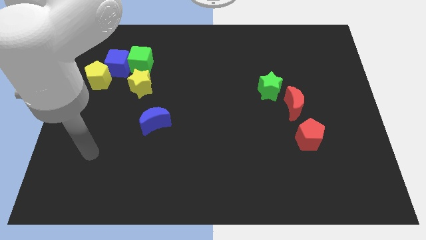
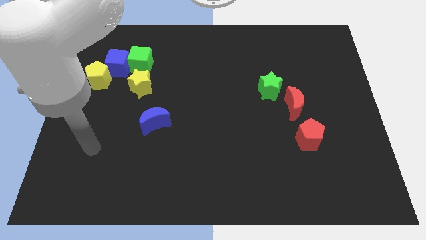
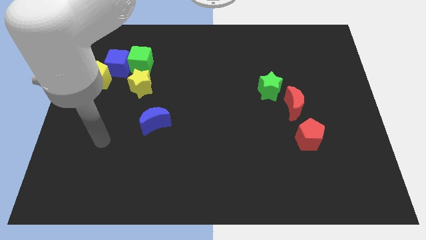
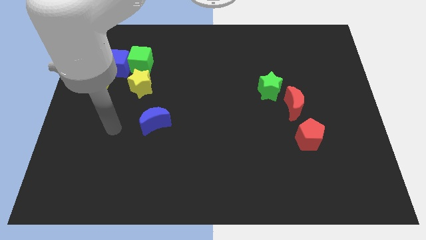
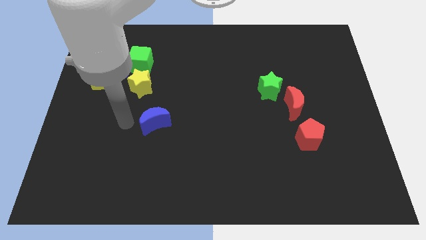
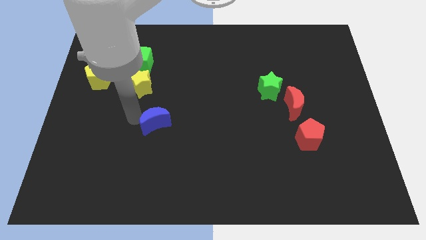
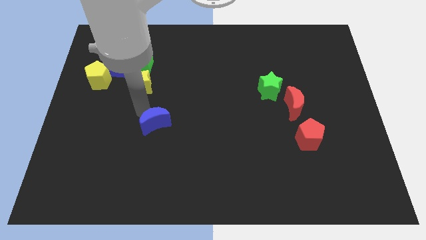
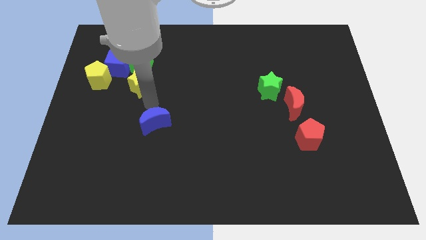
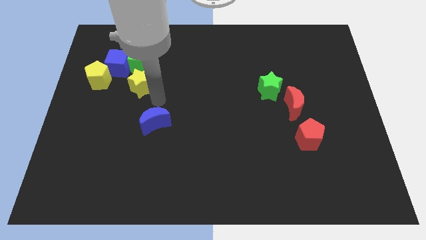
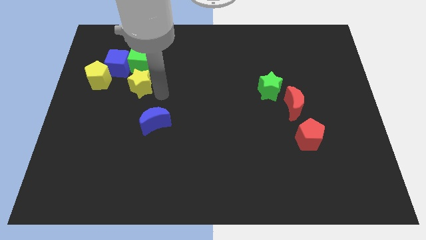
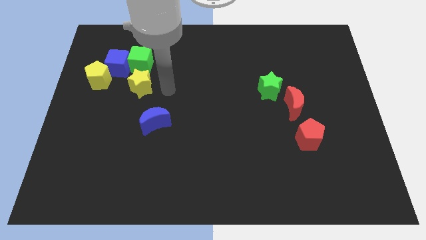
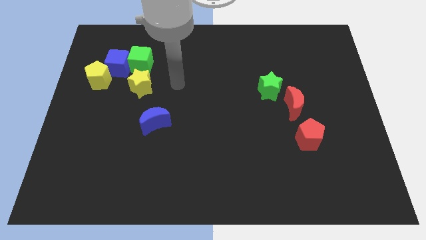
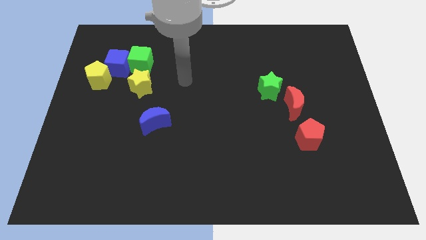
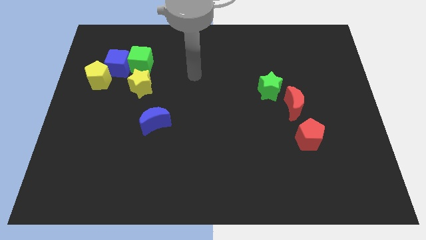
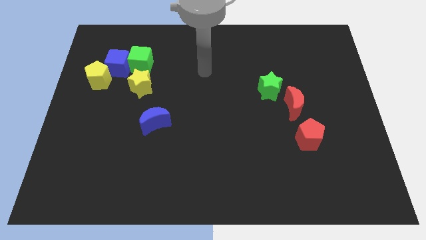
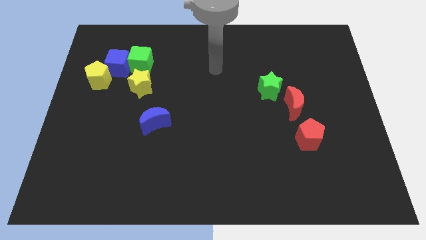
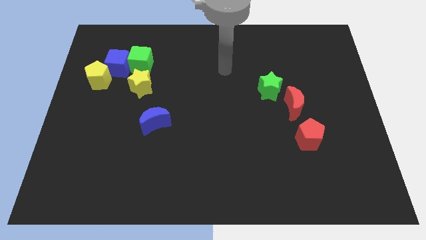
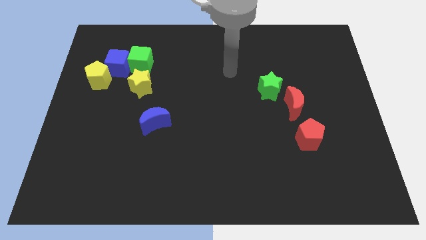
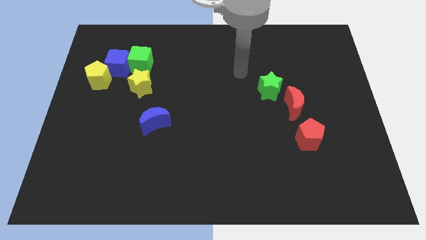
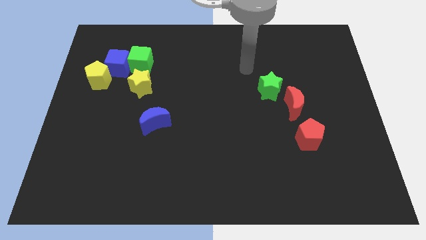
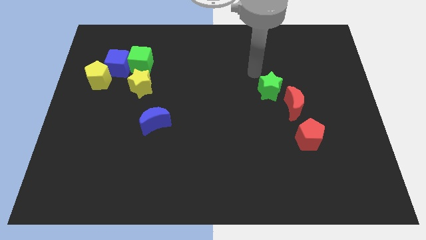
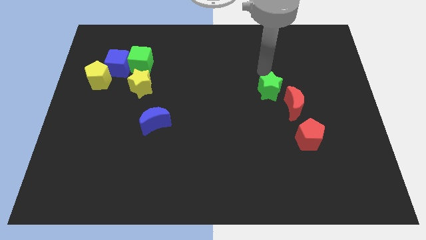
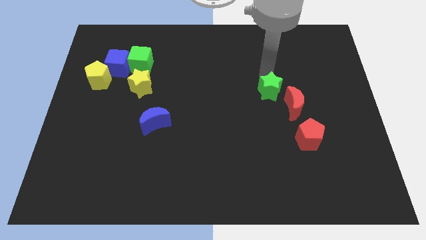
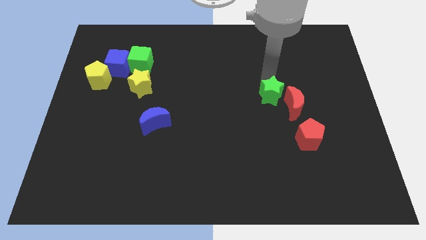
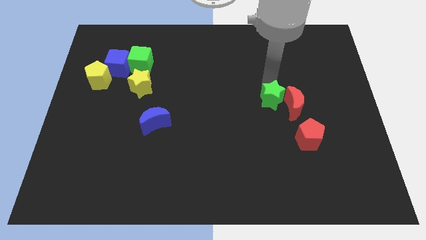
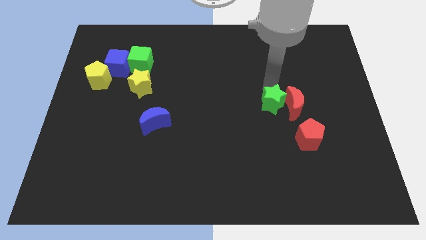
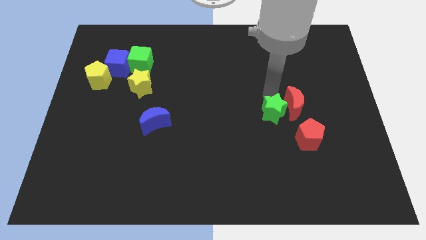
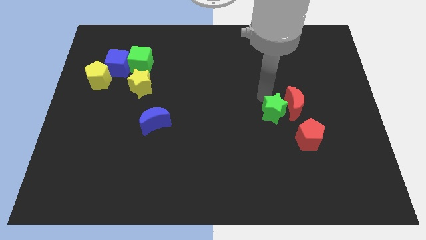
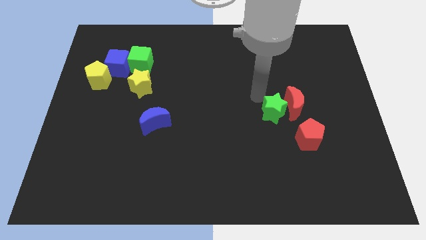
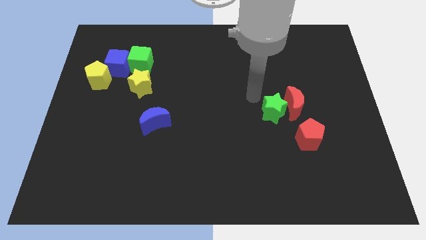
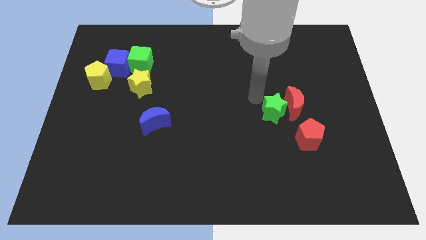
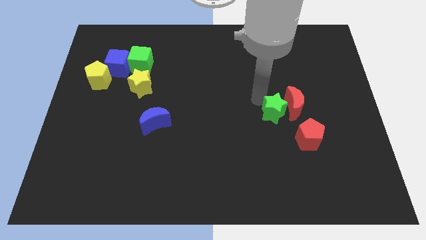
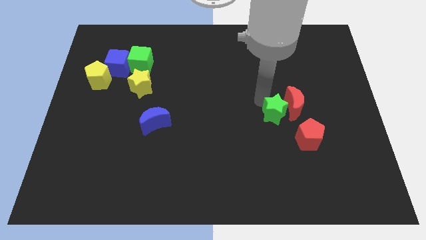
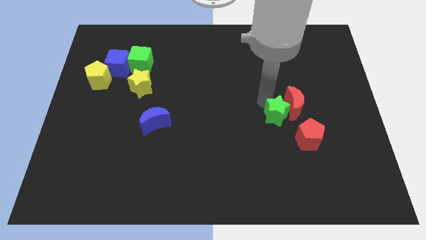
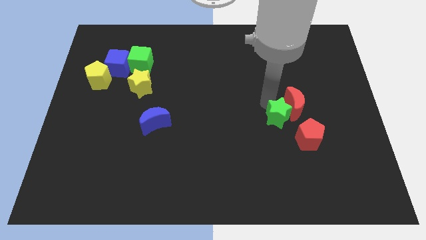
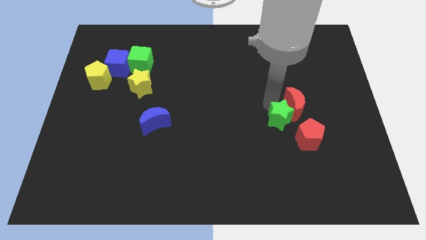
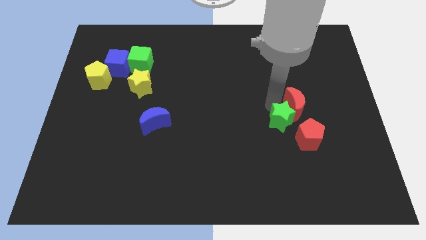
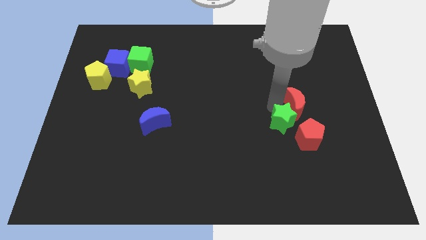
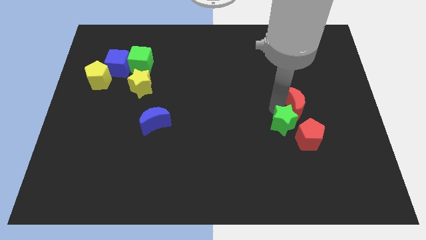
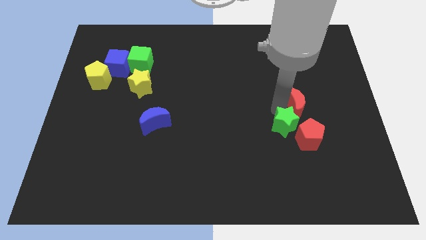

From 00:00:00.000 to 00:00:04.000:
move the green star to the red pentagon

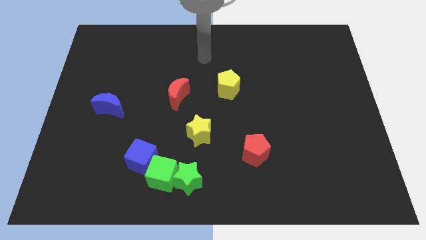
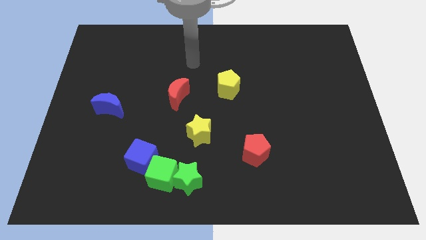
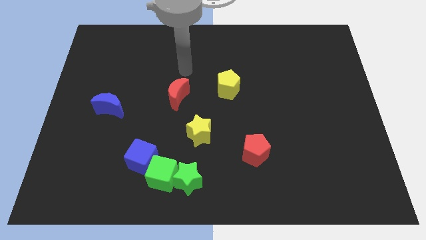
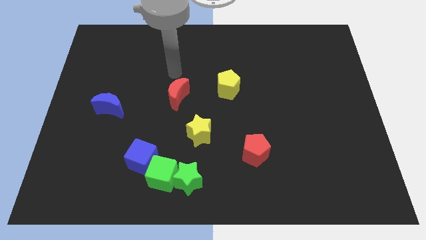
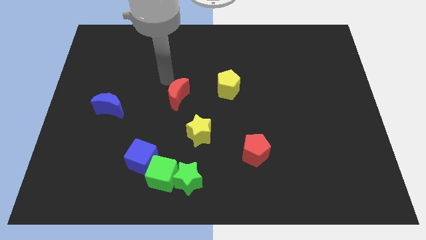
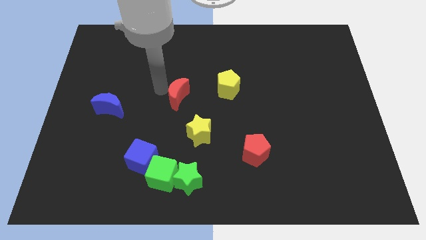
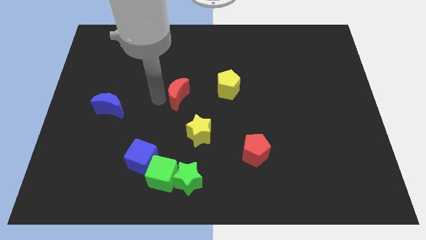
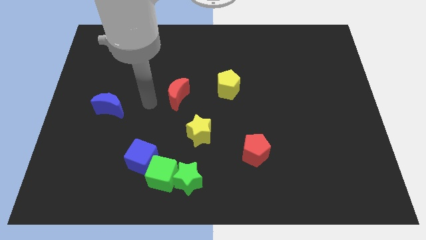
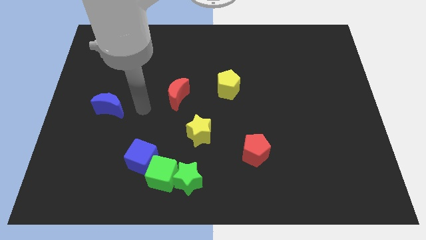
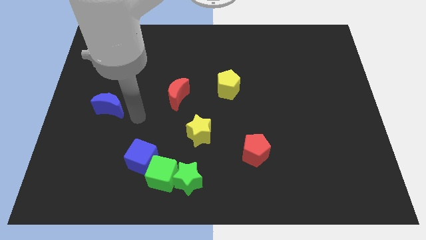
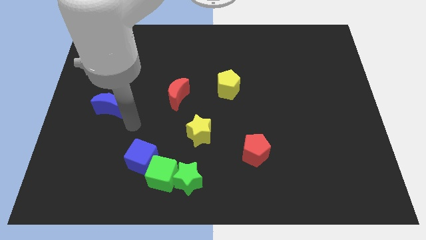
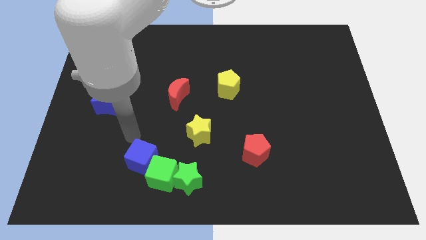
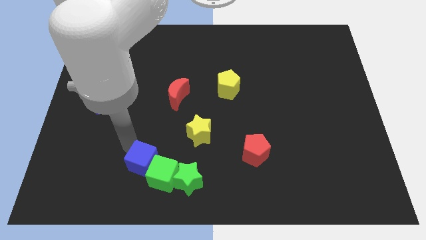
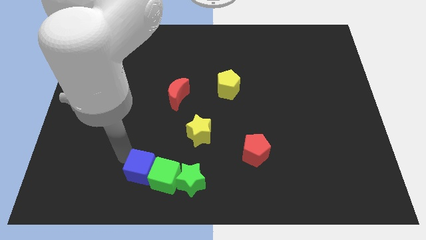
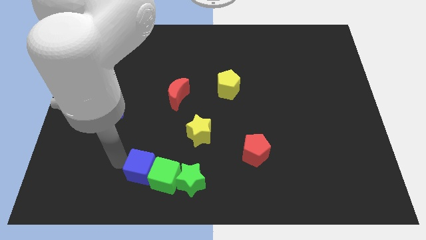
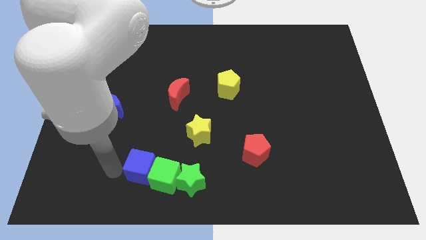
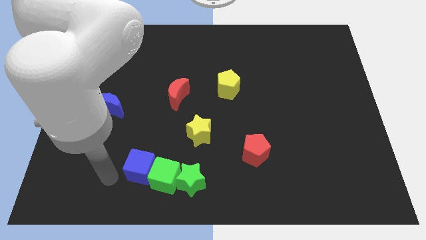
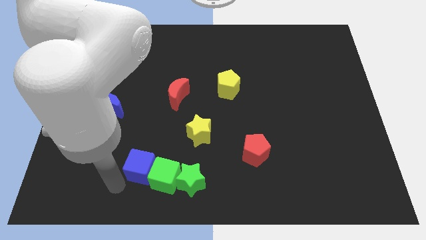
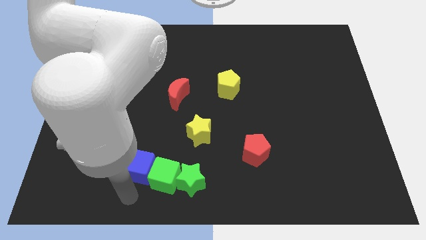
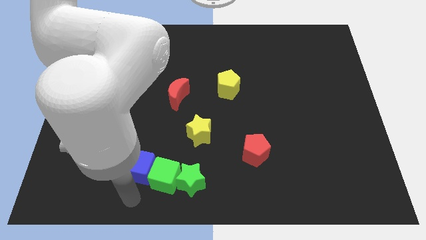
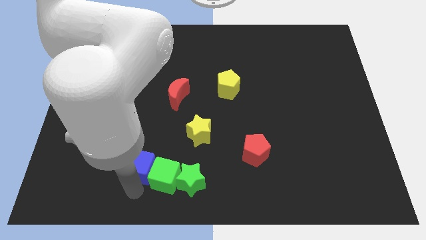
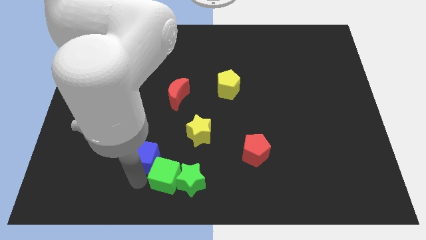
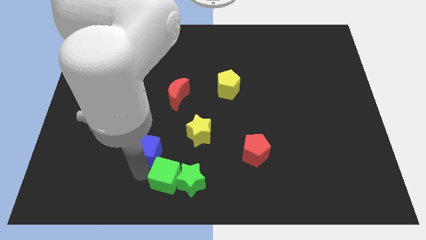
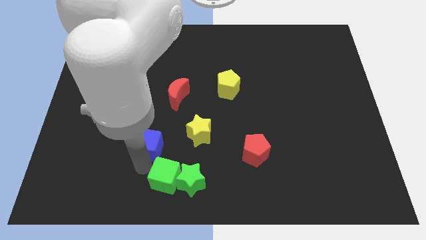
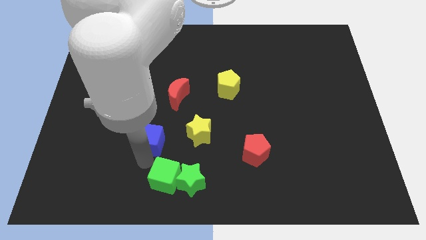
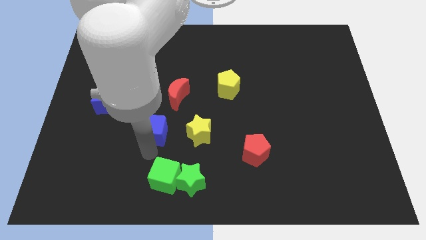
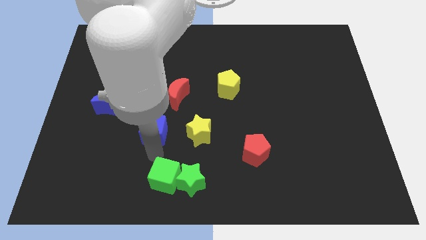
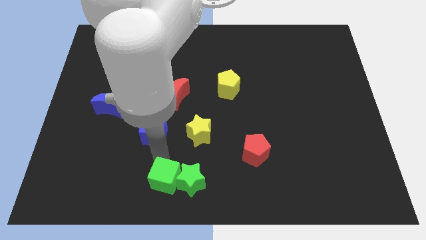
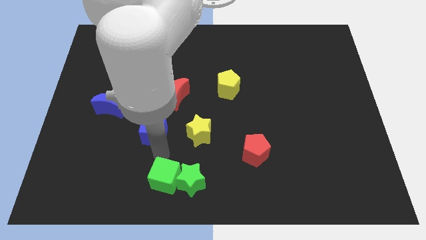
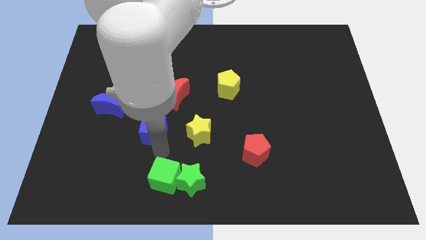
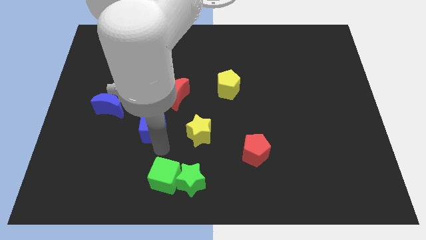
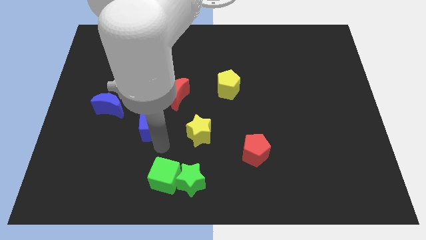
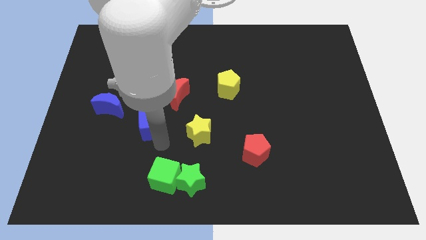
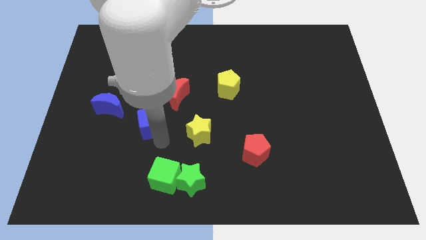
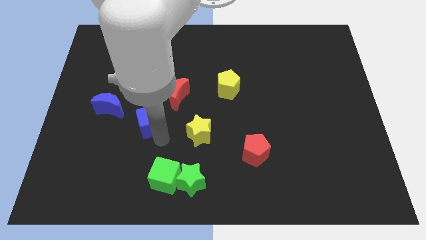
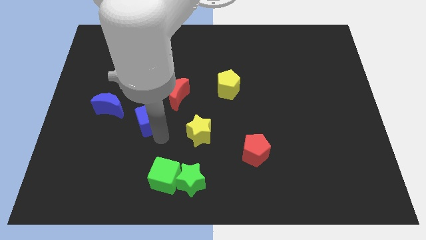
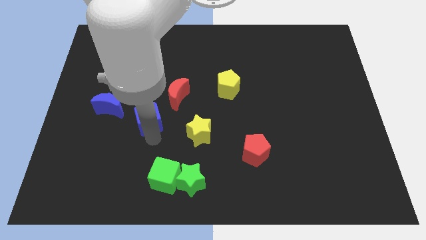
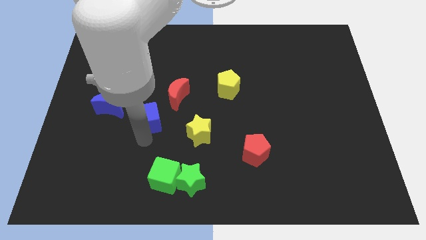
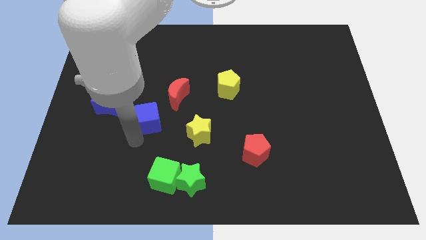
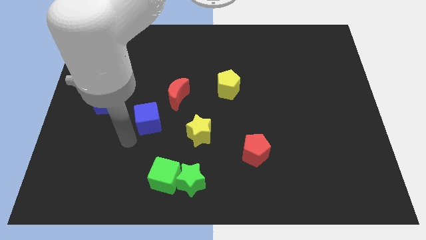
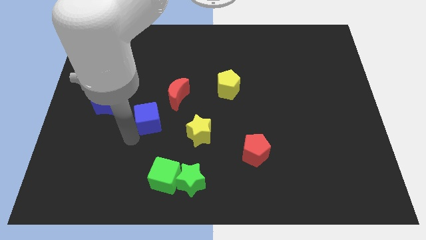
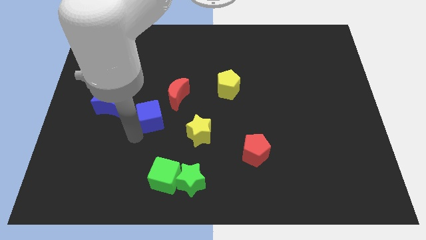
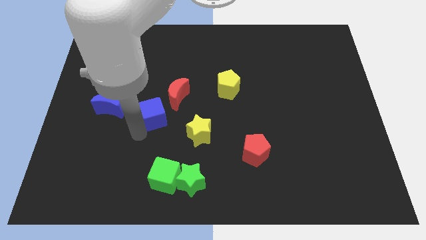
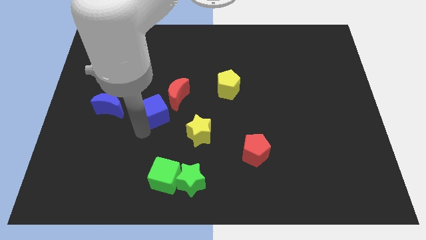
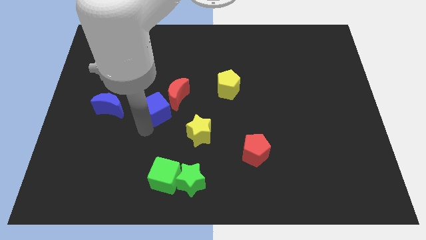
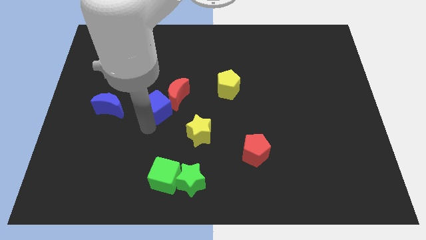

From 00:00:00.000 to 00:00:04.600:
put the blue cube towards the red moon
